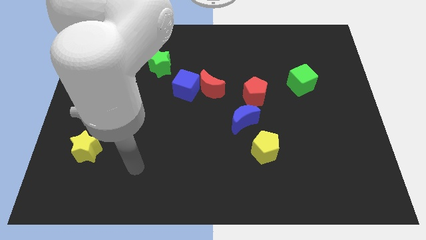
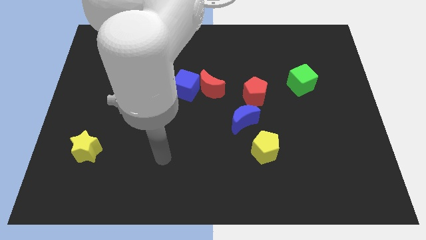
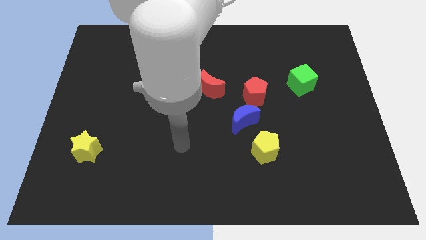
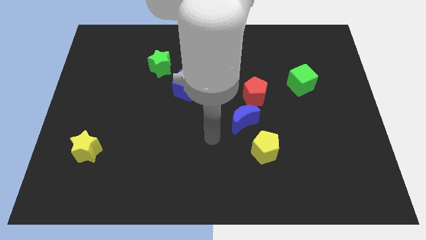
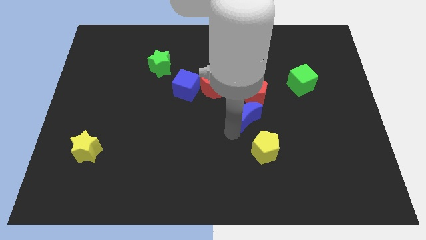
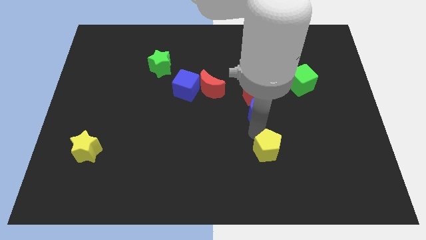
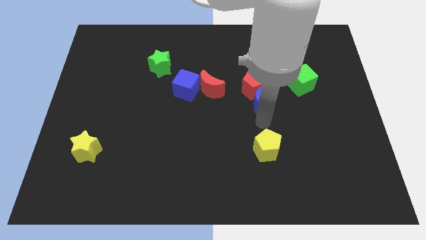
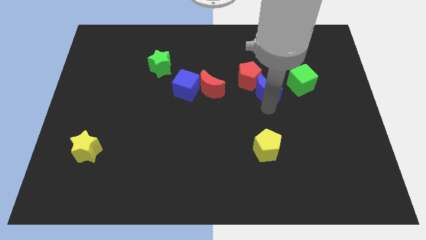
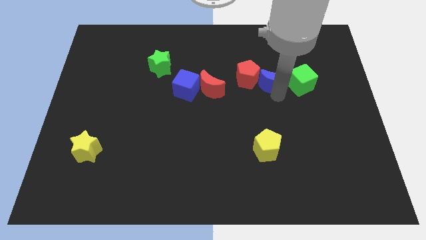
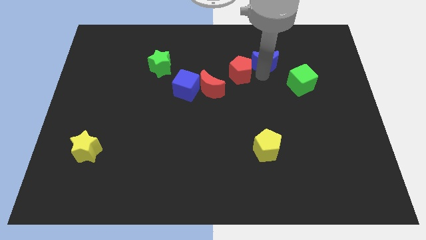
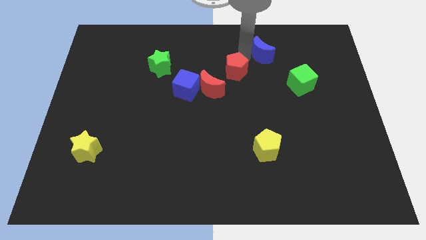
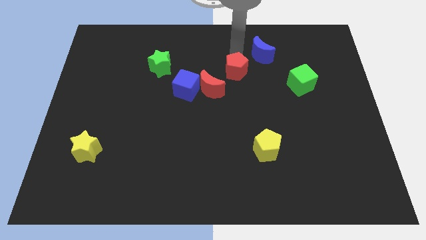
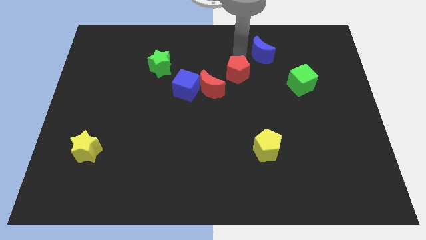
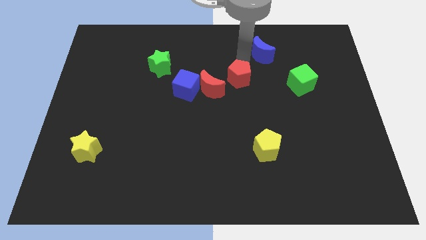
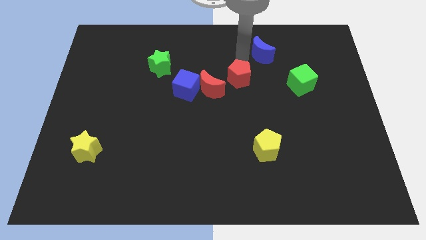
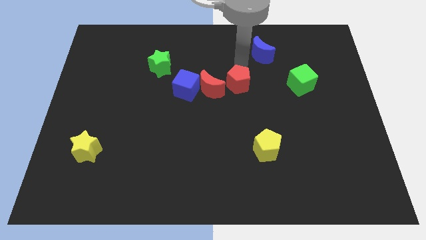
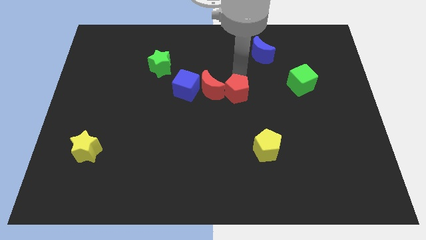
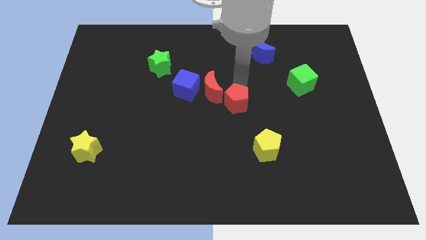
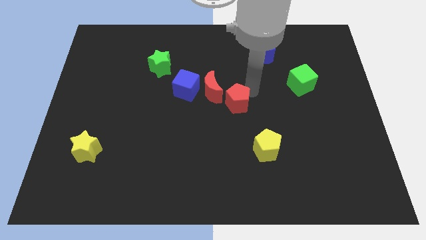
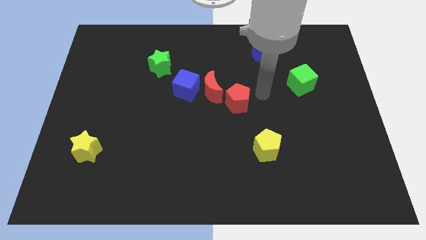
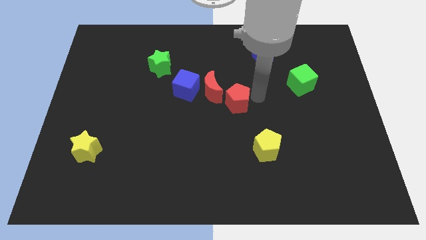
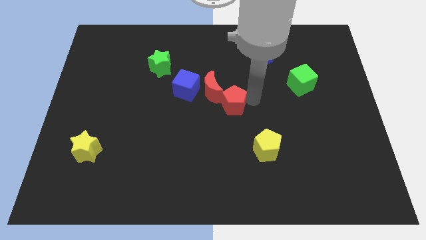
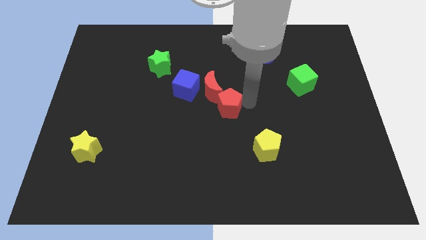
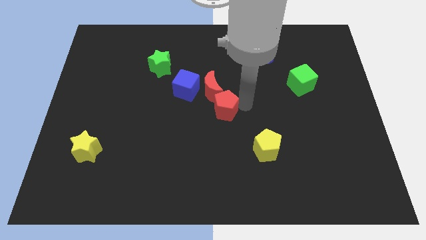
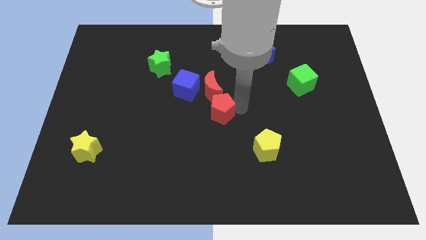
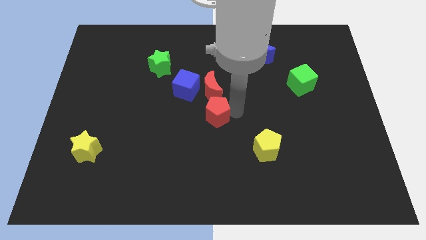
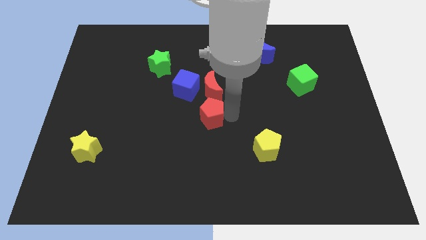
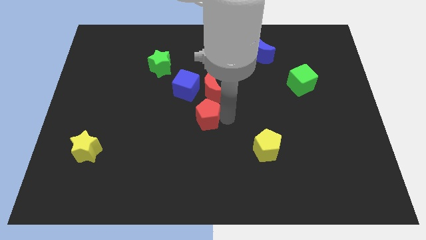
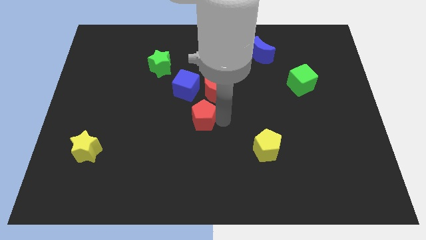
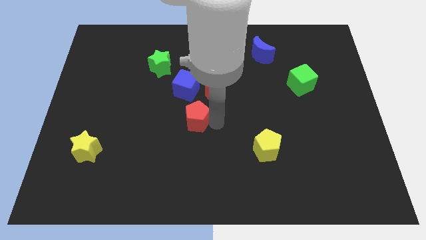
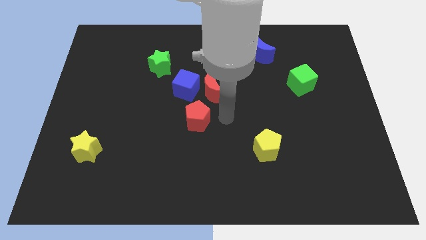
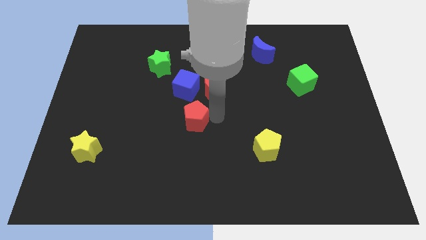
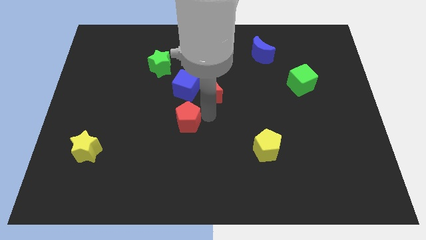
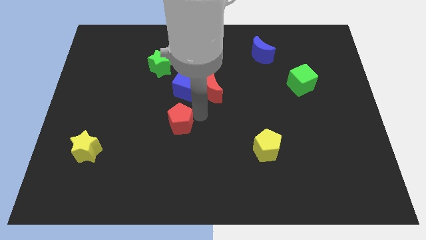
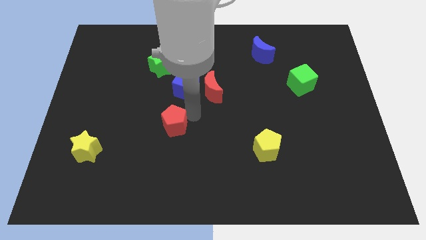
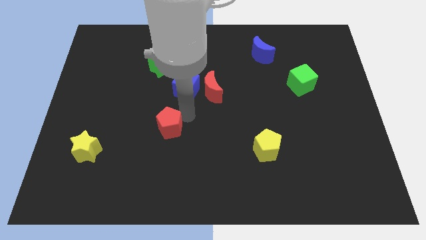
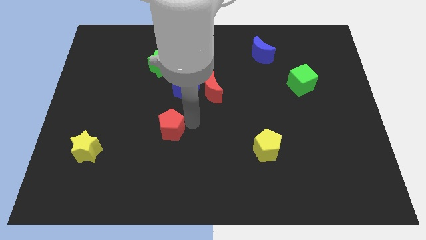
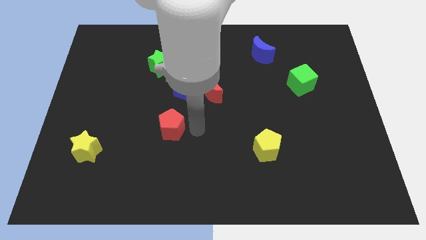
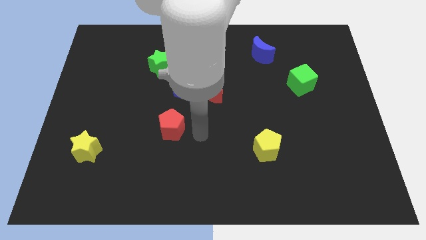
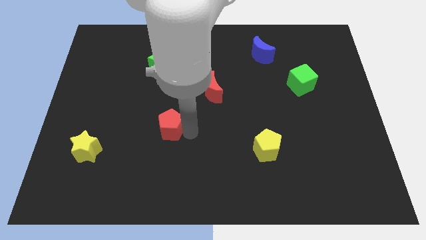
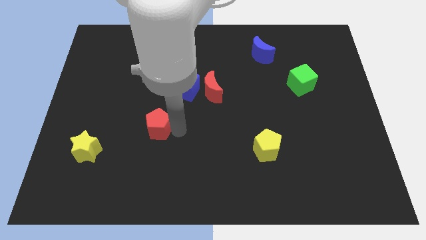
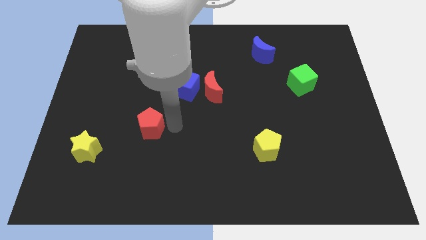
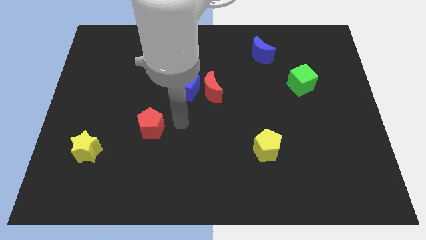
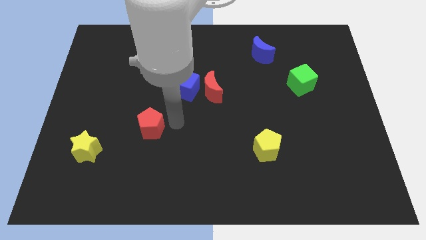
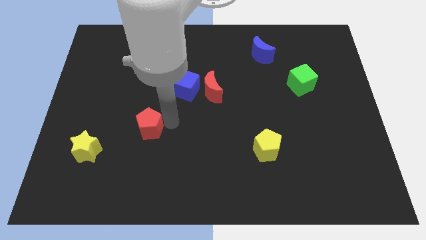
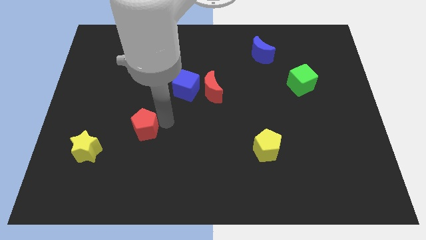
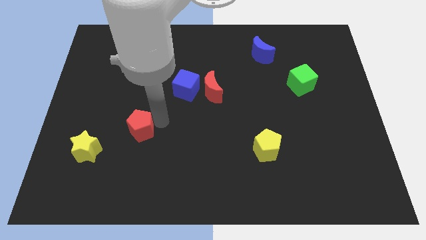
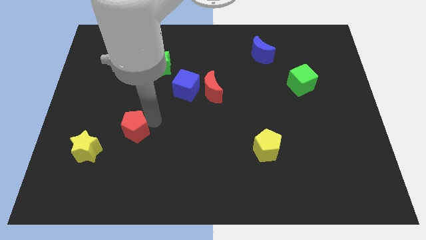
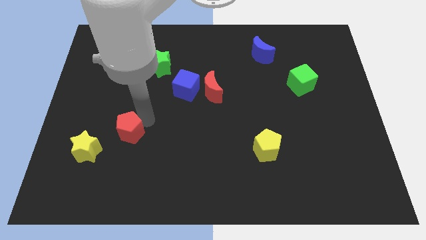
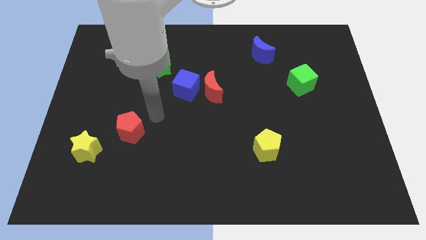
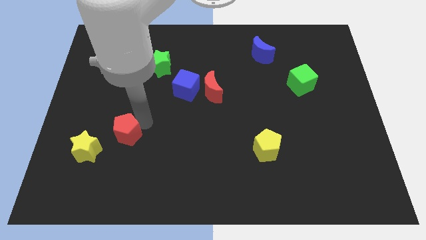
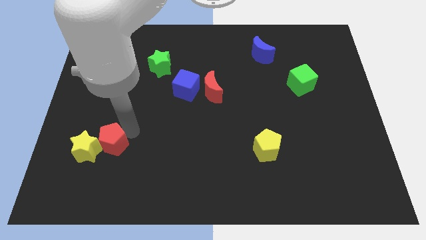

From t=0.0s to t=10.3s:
push the red pentagon next to the yellow star

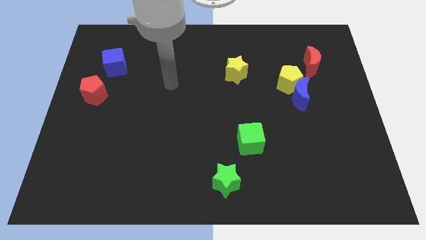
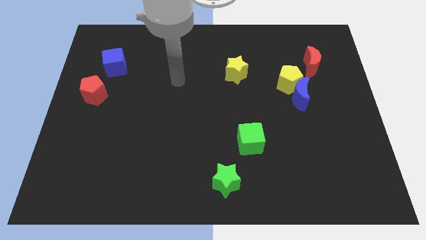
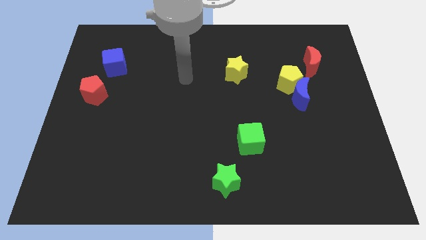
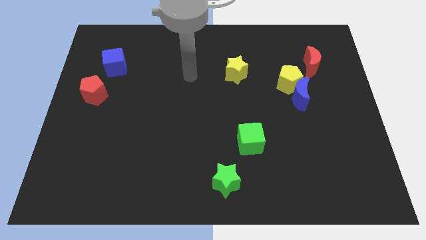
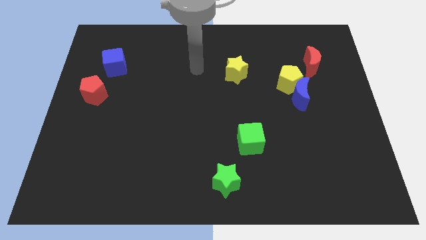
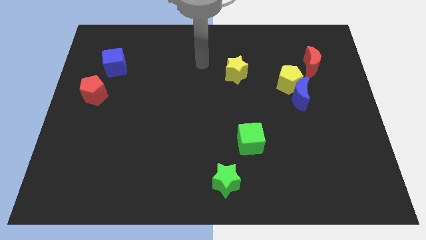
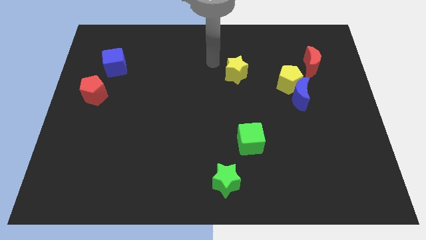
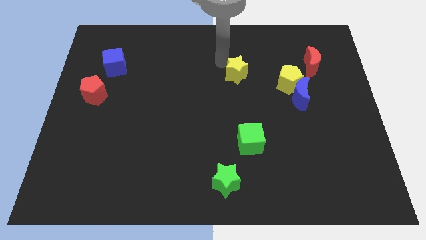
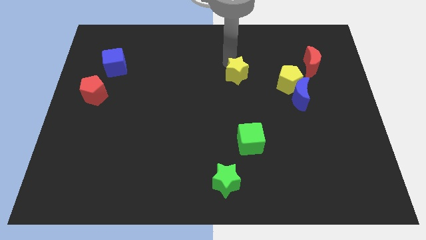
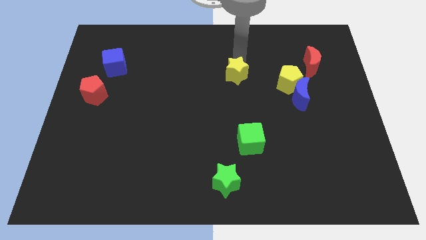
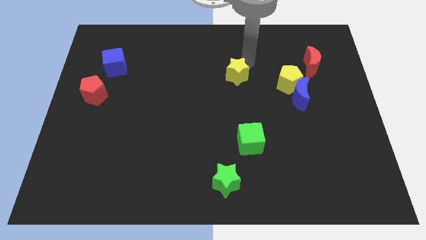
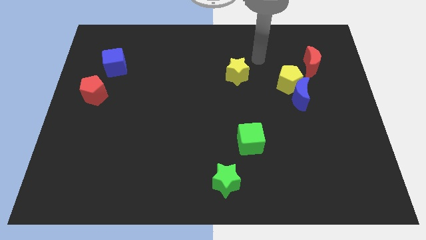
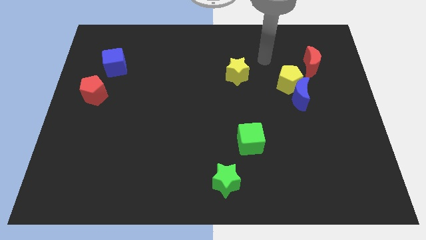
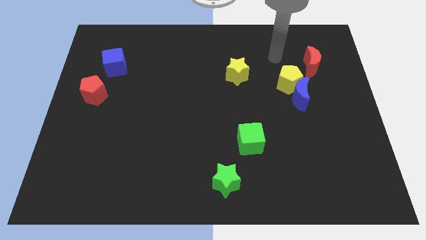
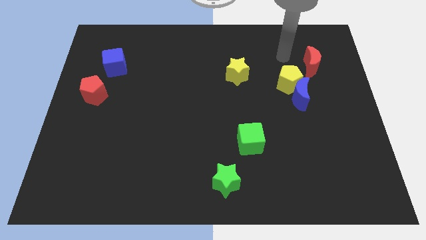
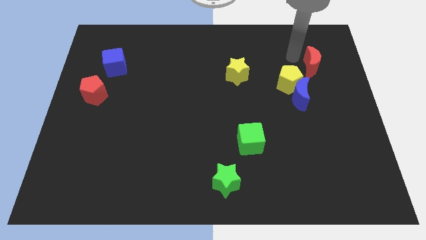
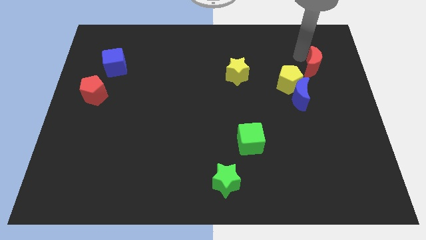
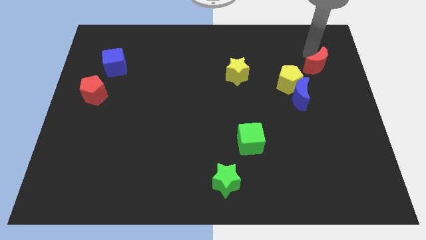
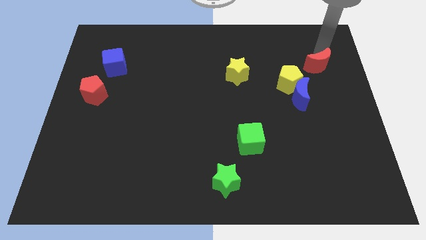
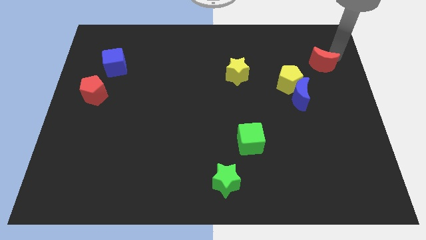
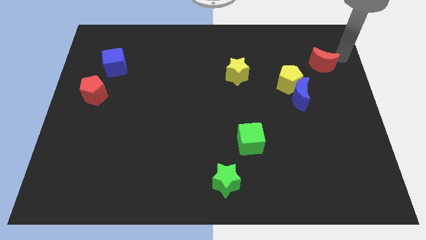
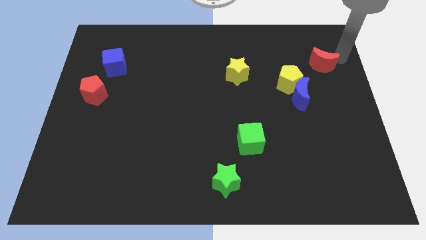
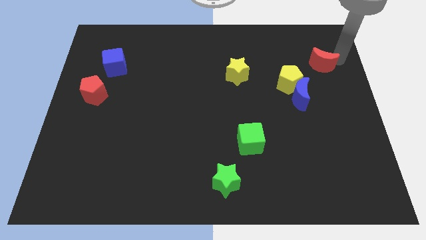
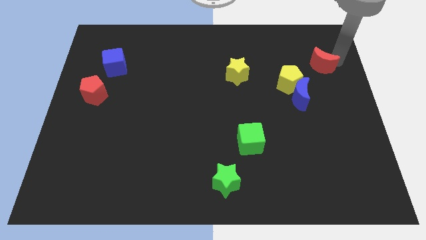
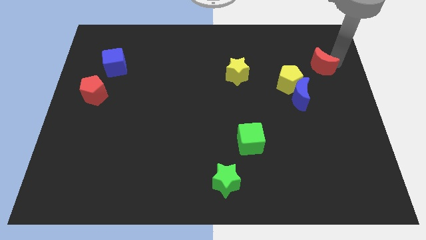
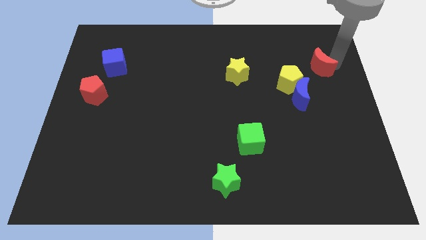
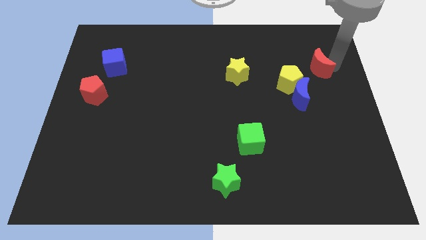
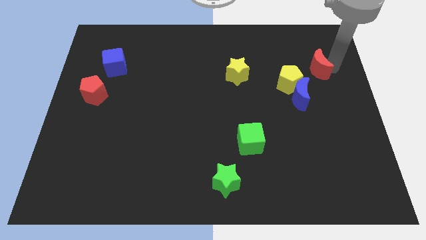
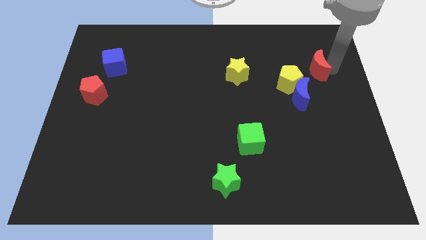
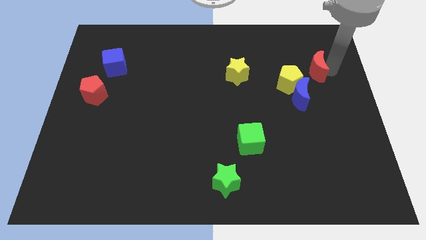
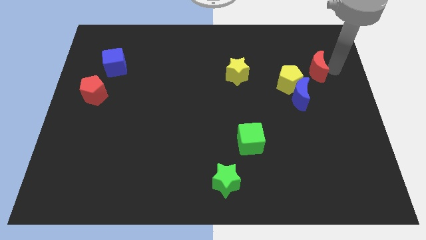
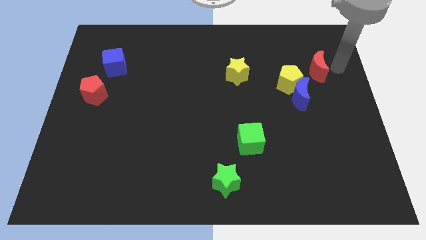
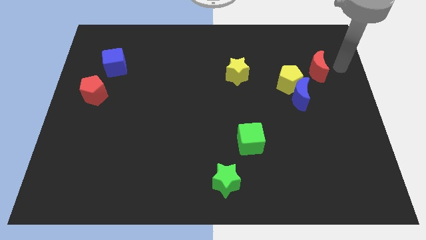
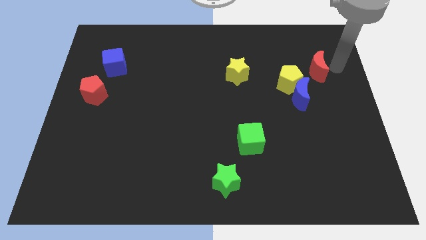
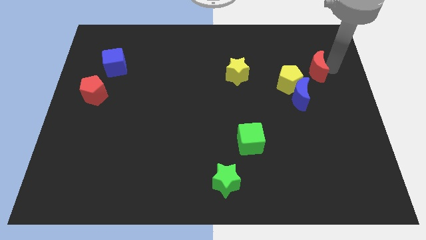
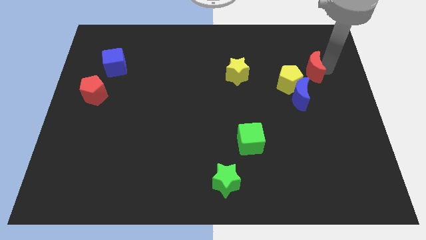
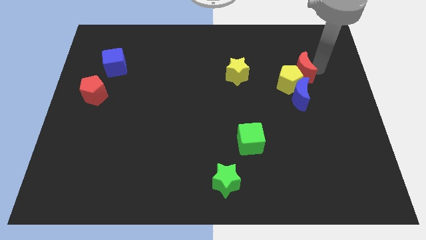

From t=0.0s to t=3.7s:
put the red moon to the yellow pentagon
